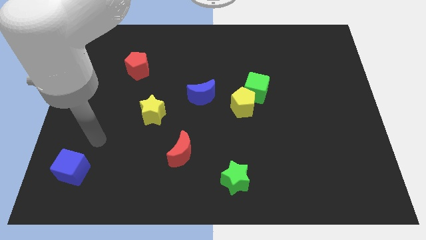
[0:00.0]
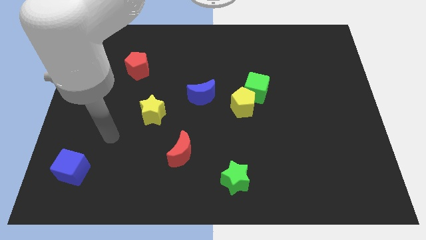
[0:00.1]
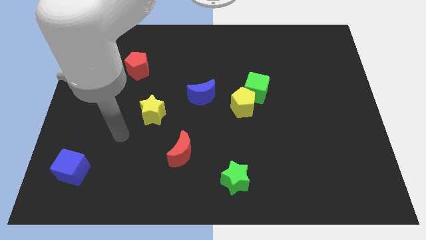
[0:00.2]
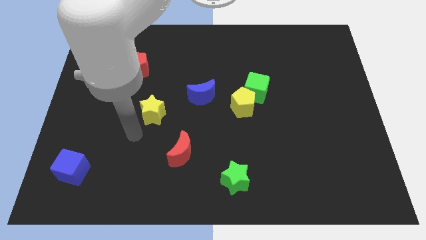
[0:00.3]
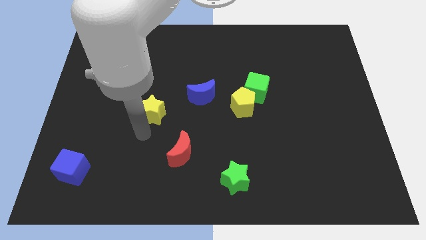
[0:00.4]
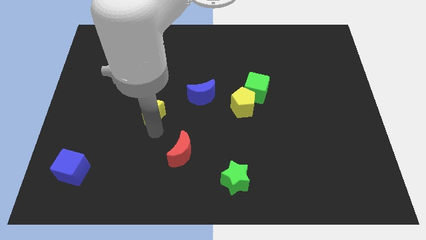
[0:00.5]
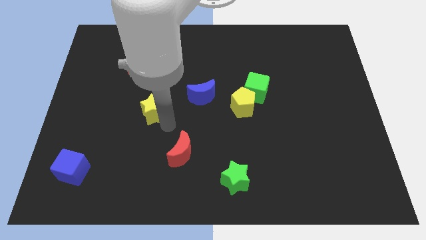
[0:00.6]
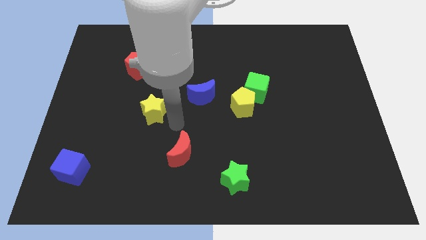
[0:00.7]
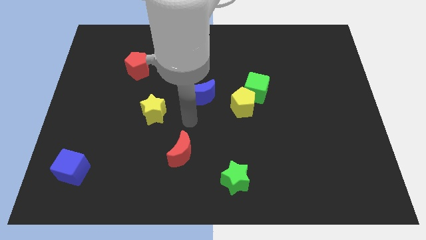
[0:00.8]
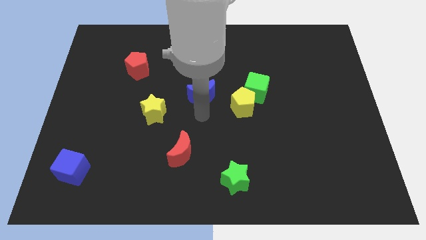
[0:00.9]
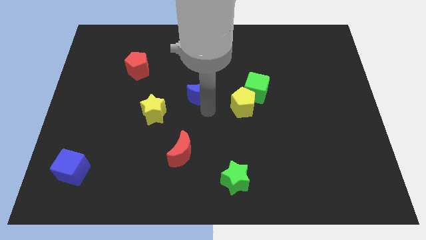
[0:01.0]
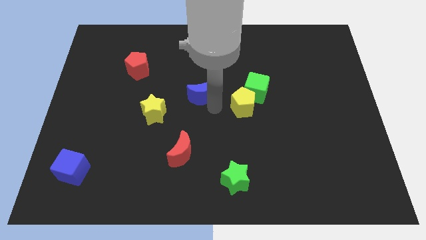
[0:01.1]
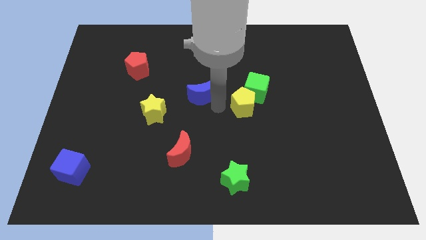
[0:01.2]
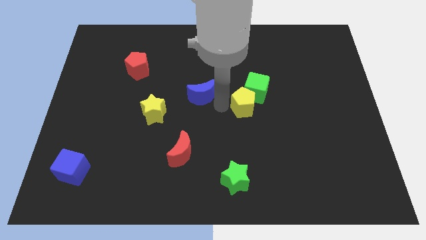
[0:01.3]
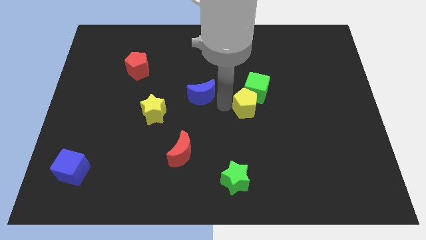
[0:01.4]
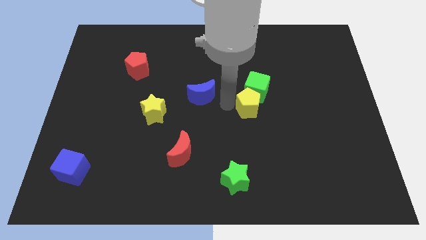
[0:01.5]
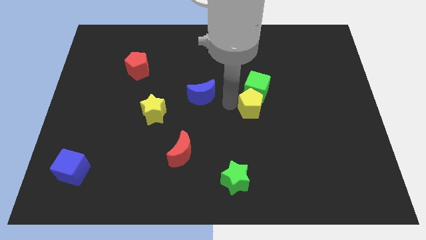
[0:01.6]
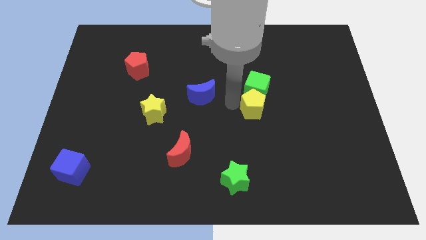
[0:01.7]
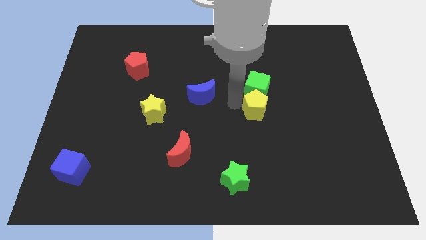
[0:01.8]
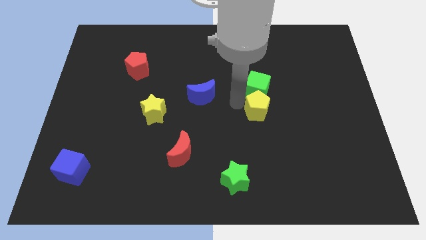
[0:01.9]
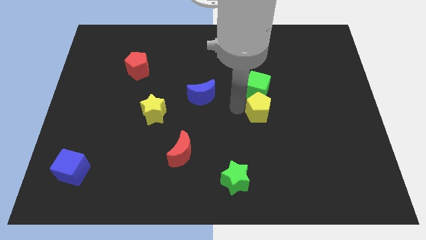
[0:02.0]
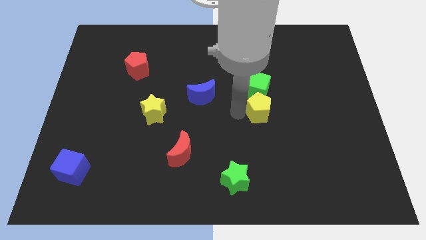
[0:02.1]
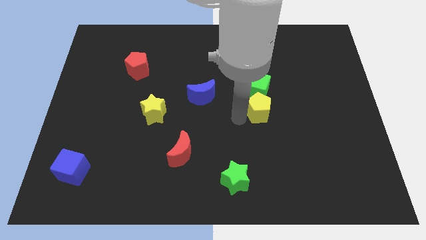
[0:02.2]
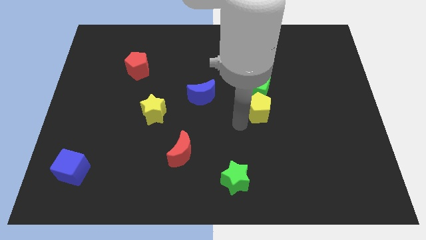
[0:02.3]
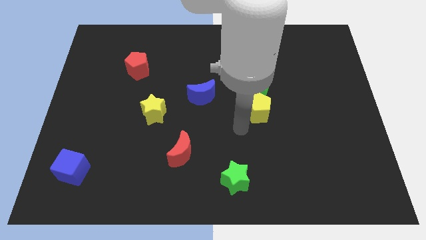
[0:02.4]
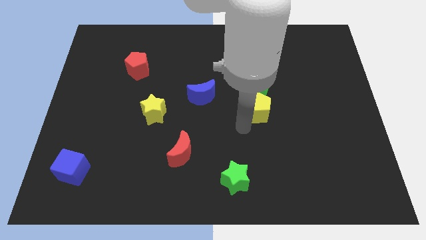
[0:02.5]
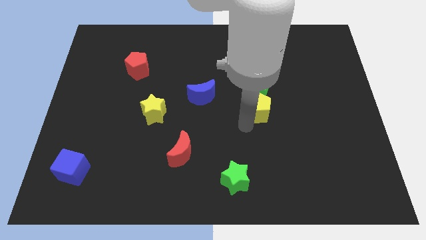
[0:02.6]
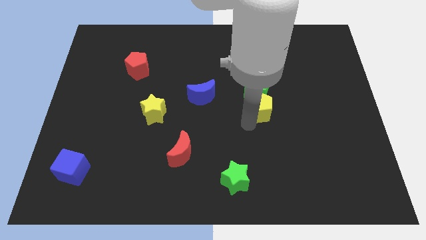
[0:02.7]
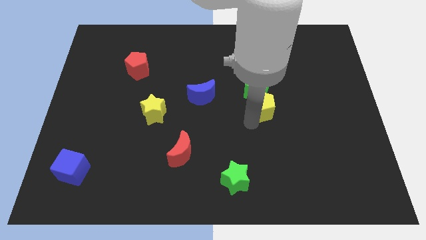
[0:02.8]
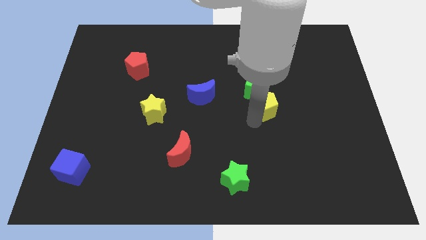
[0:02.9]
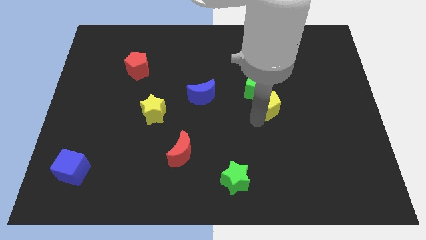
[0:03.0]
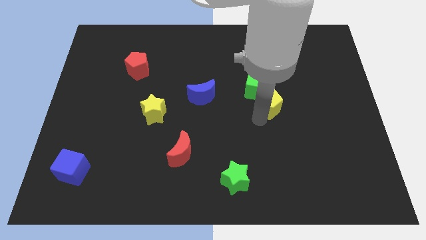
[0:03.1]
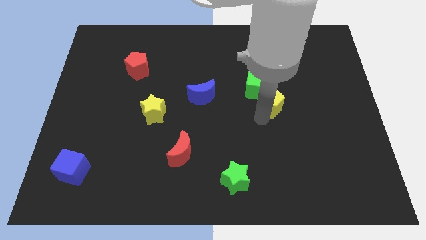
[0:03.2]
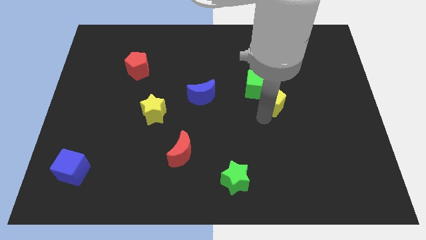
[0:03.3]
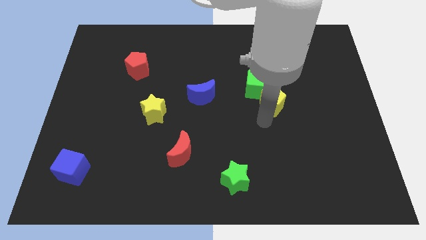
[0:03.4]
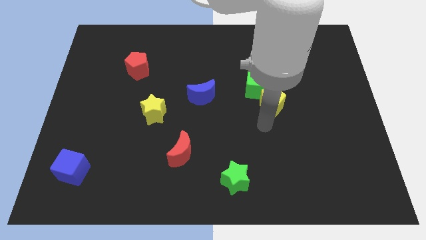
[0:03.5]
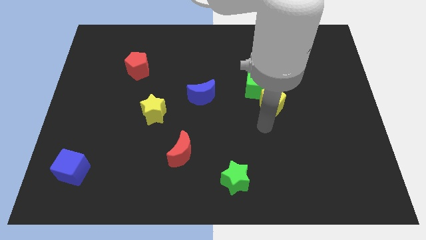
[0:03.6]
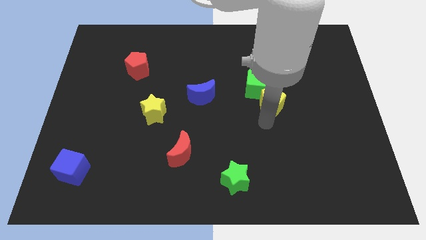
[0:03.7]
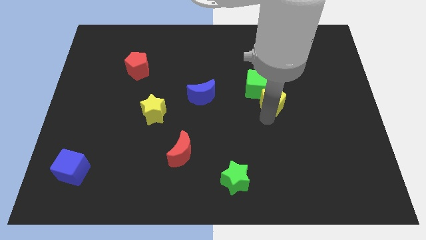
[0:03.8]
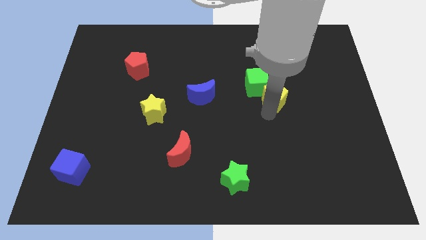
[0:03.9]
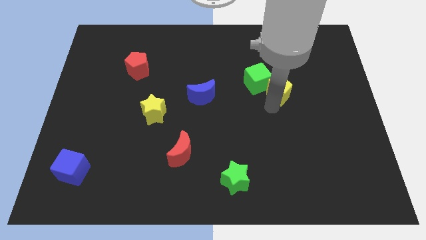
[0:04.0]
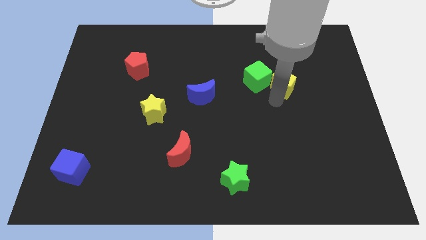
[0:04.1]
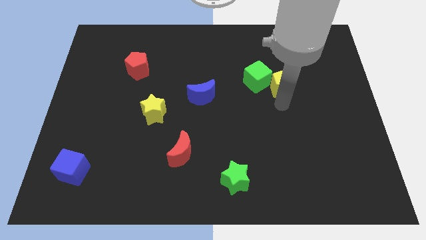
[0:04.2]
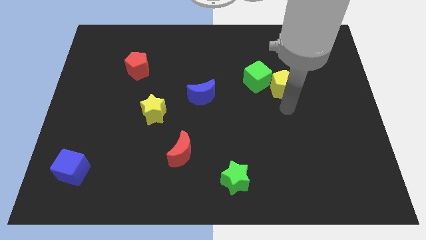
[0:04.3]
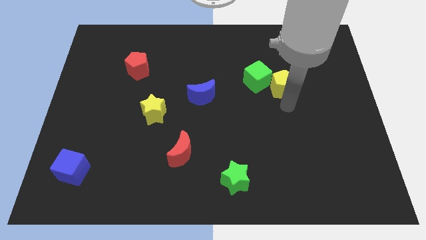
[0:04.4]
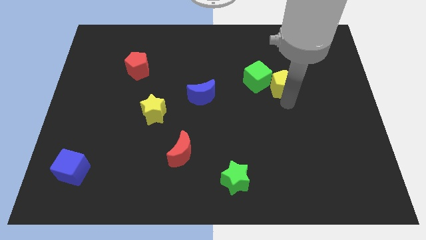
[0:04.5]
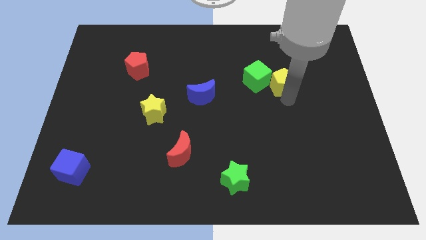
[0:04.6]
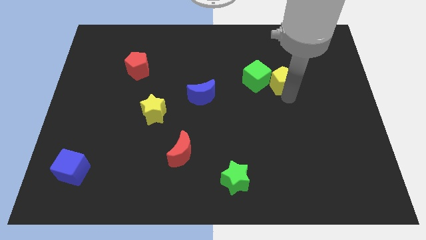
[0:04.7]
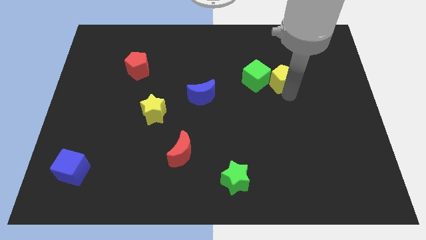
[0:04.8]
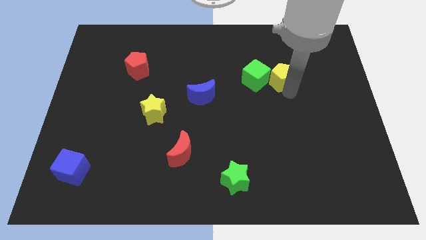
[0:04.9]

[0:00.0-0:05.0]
slide the yellow pentagon diagonally up and to the right of the green cube

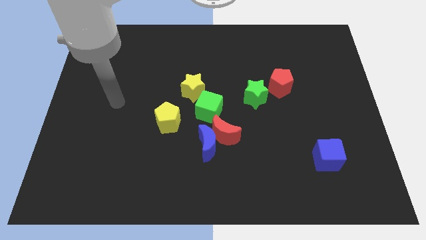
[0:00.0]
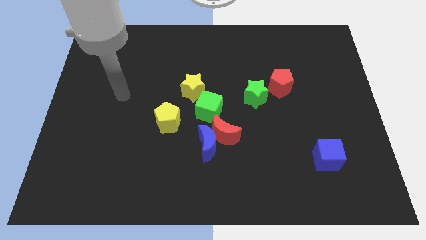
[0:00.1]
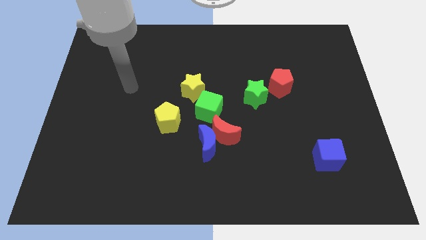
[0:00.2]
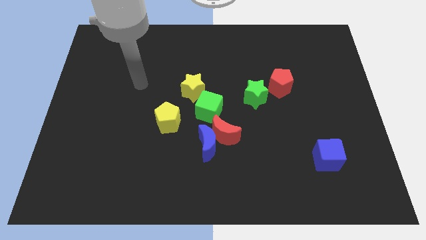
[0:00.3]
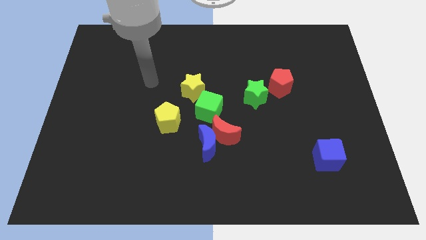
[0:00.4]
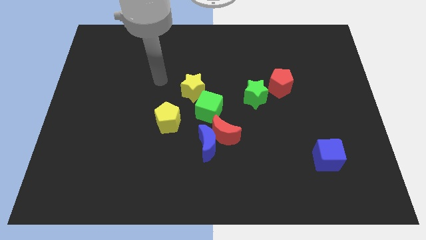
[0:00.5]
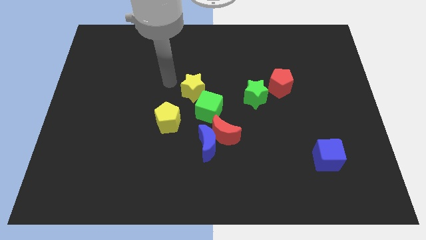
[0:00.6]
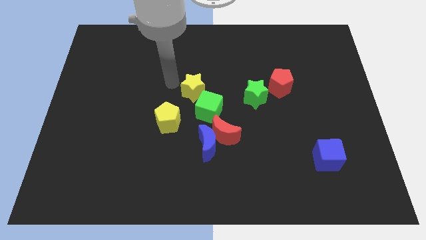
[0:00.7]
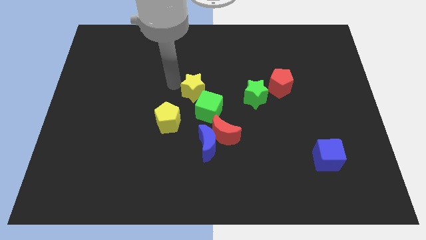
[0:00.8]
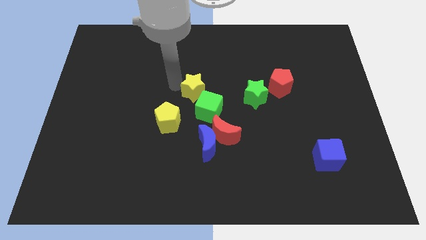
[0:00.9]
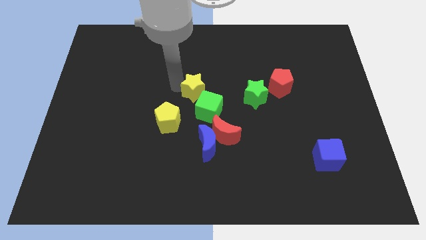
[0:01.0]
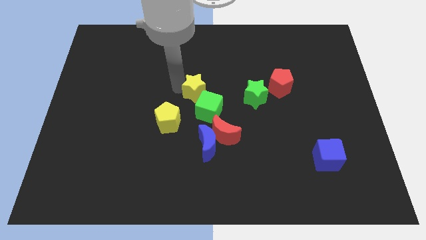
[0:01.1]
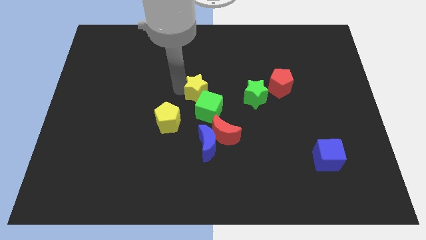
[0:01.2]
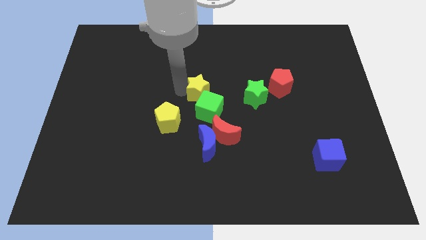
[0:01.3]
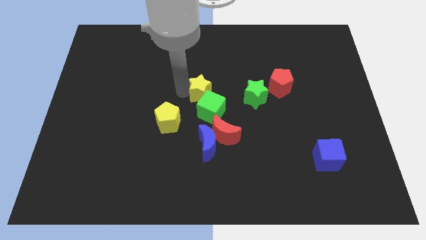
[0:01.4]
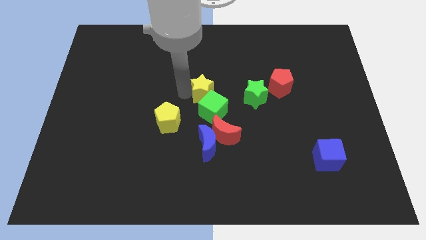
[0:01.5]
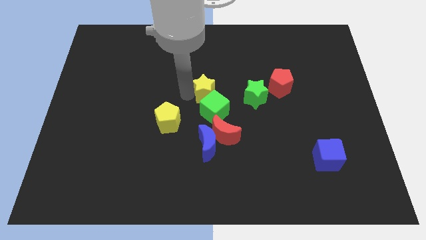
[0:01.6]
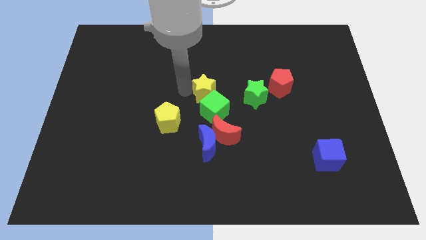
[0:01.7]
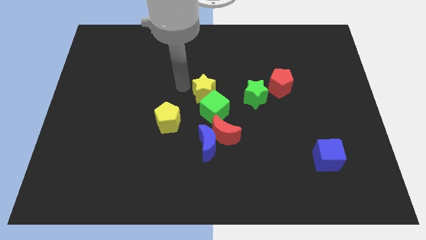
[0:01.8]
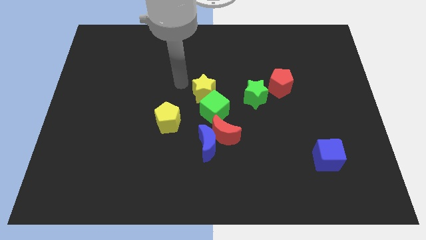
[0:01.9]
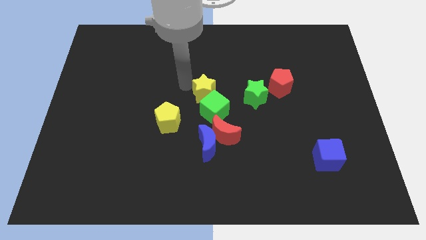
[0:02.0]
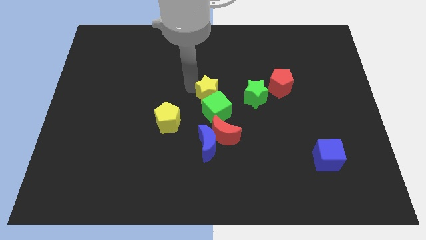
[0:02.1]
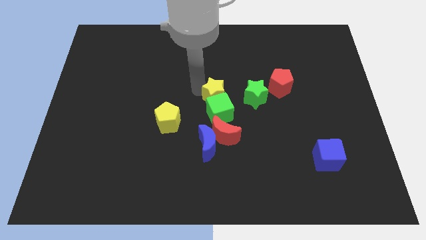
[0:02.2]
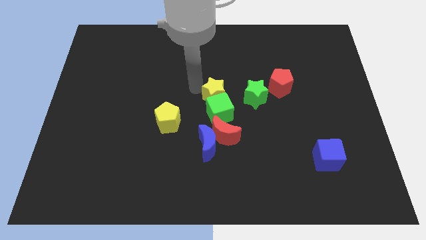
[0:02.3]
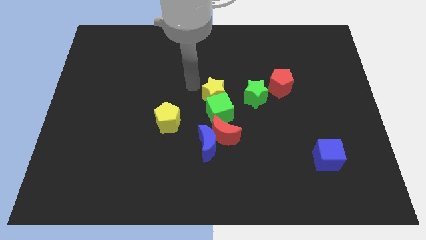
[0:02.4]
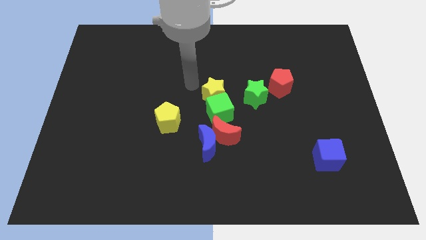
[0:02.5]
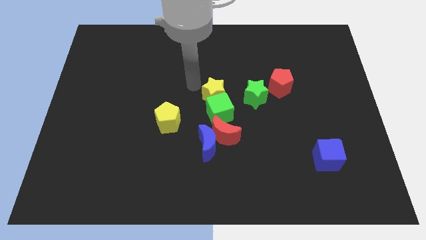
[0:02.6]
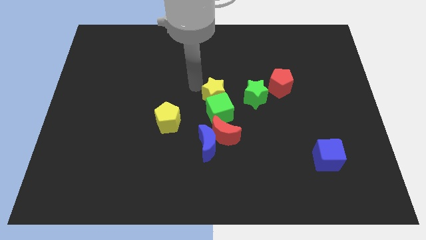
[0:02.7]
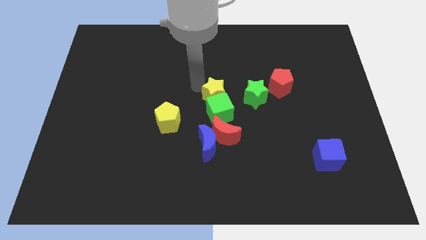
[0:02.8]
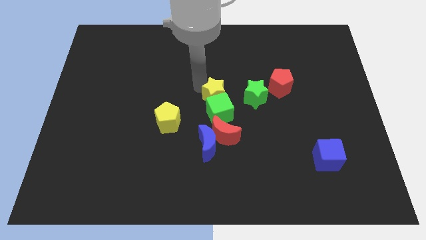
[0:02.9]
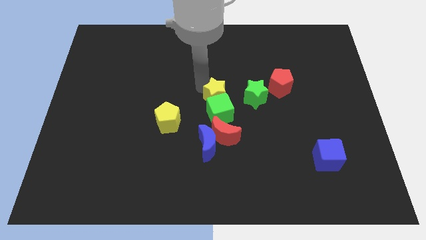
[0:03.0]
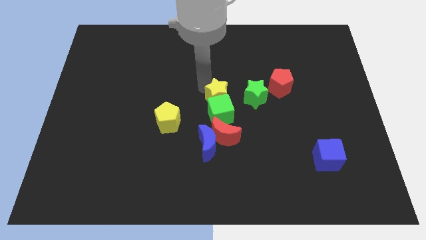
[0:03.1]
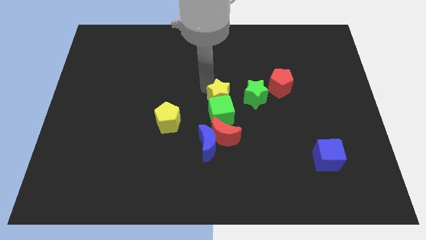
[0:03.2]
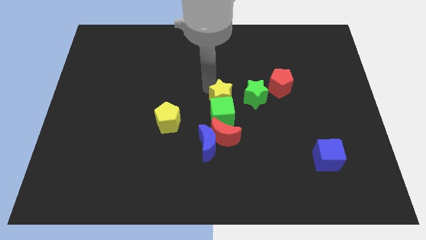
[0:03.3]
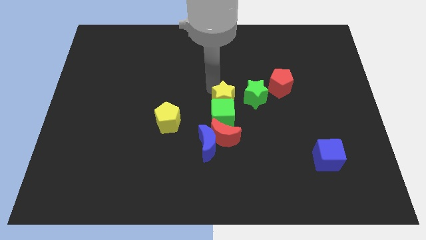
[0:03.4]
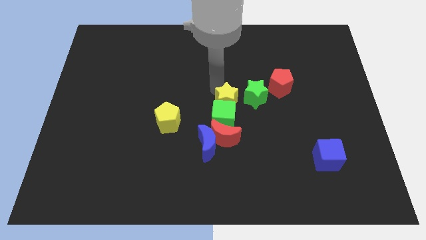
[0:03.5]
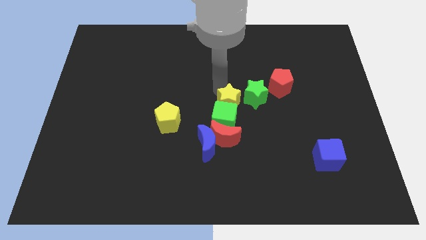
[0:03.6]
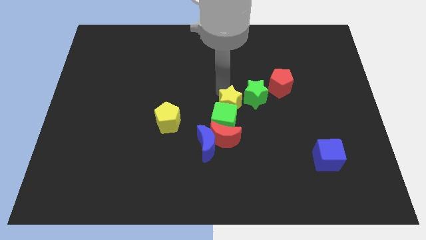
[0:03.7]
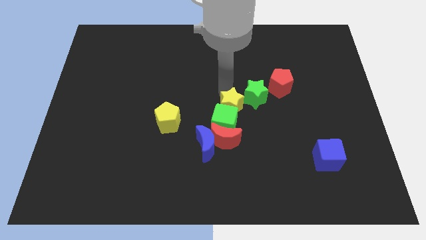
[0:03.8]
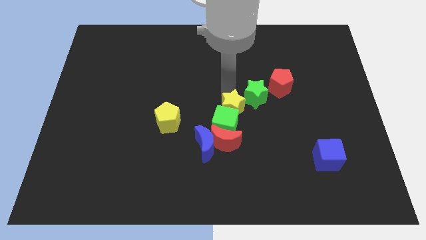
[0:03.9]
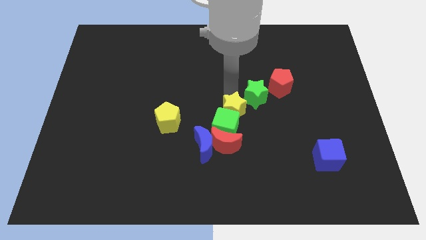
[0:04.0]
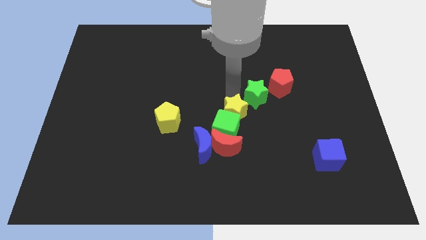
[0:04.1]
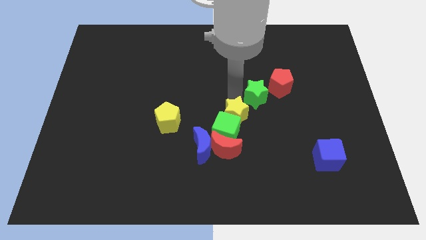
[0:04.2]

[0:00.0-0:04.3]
move the yellow star to the top right of the red moon
